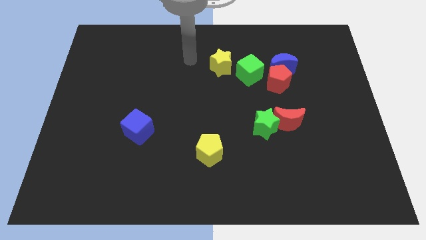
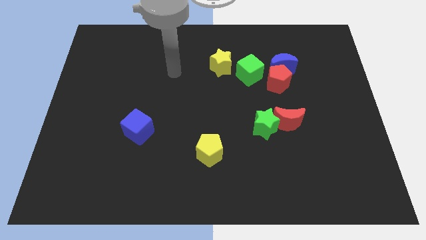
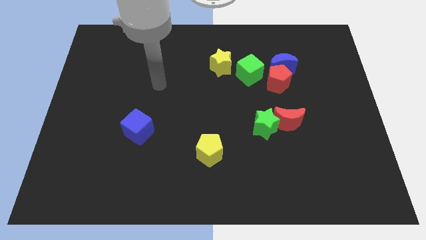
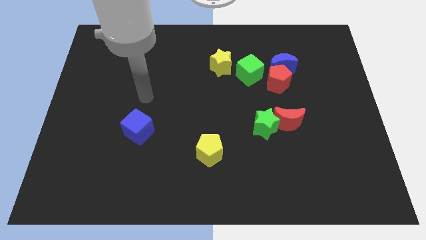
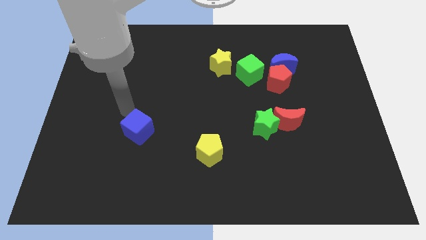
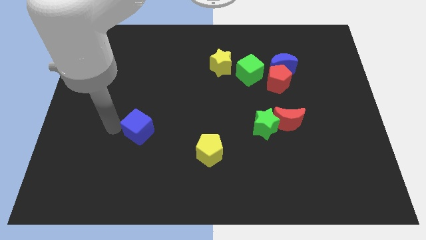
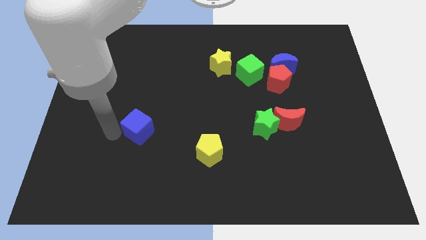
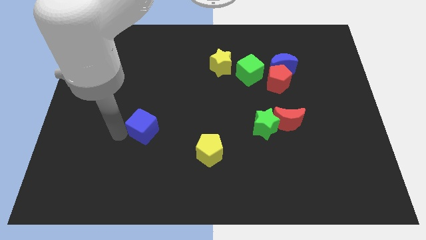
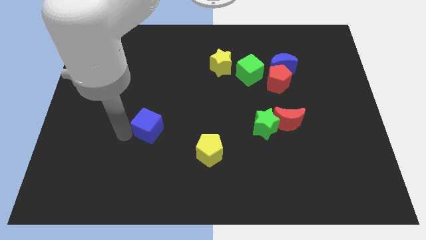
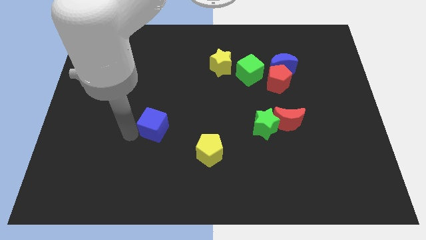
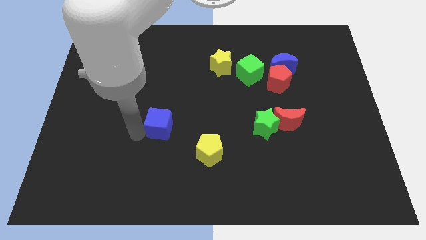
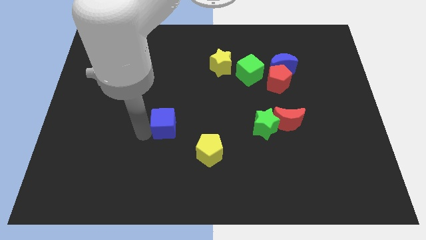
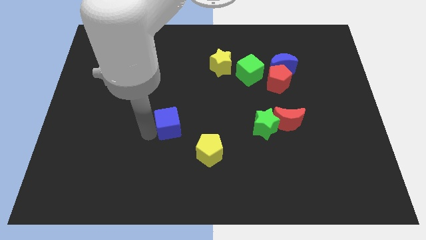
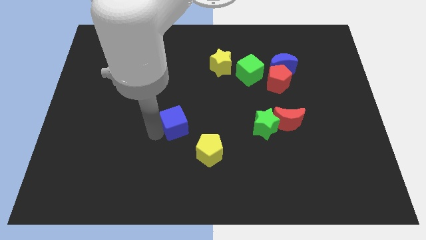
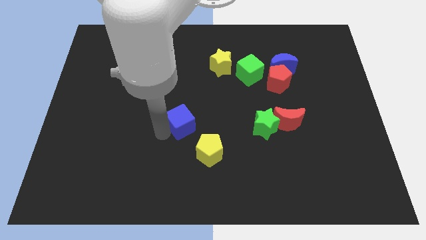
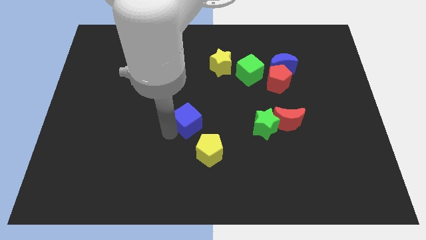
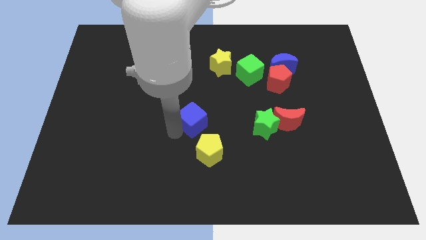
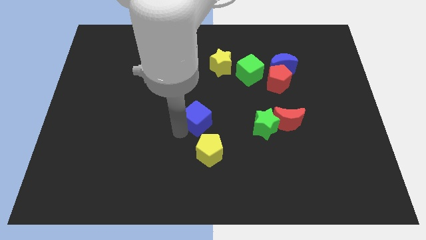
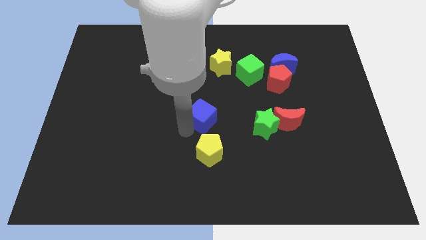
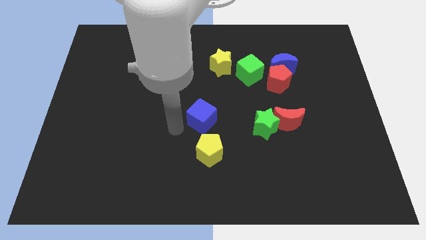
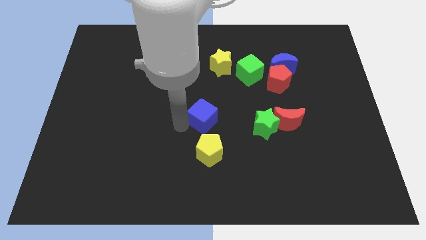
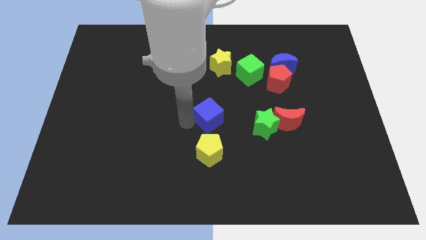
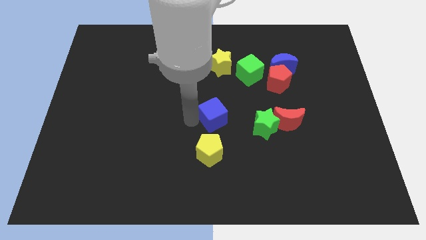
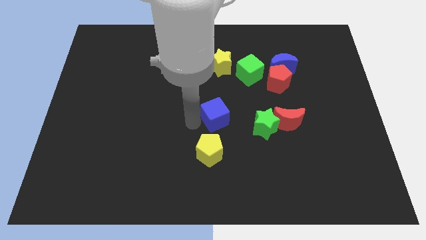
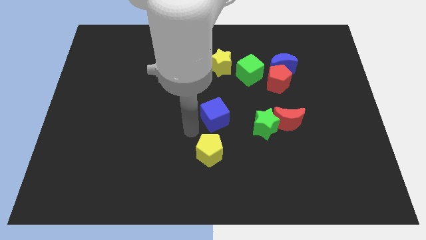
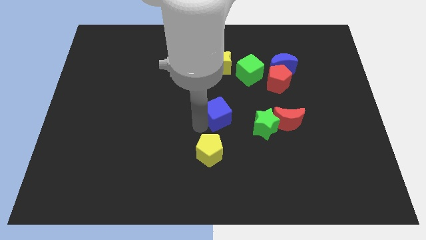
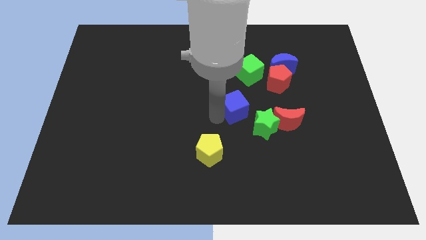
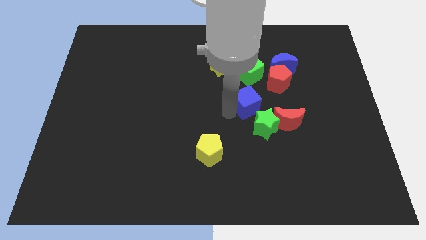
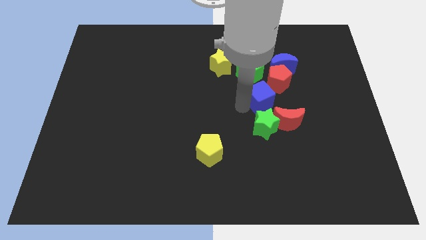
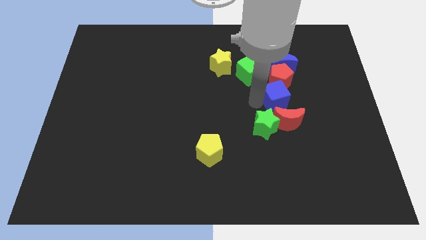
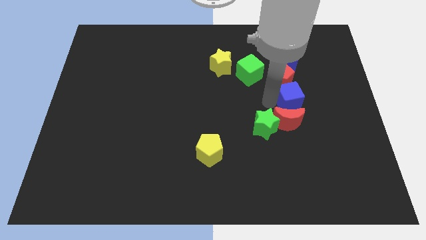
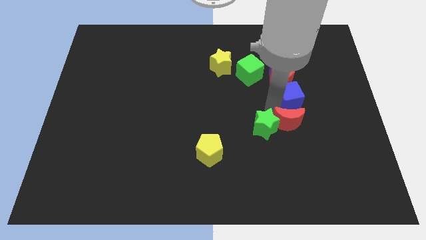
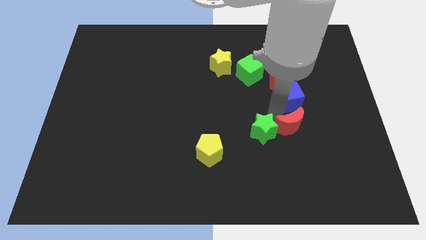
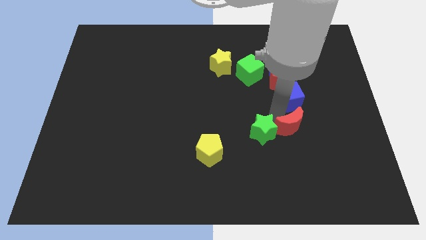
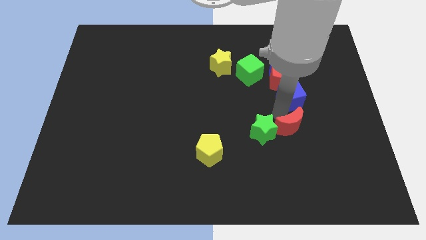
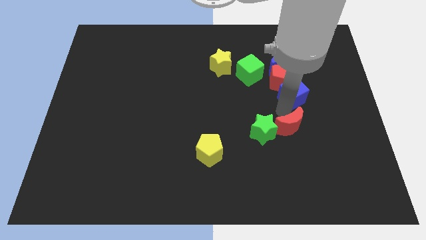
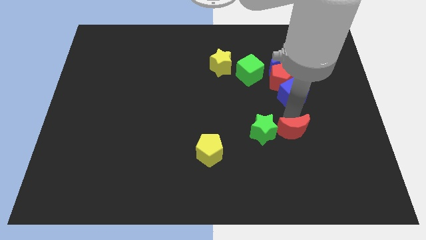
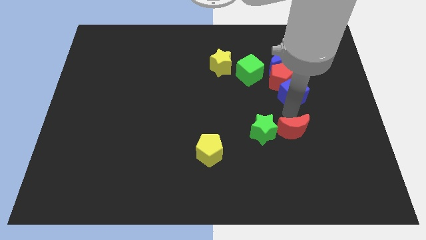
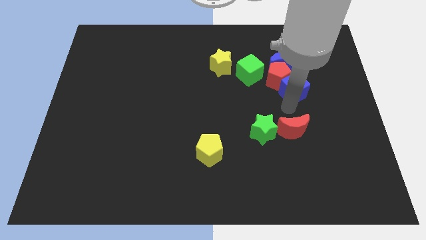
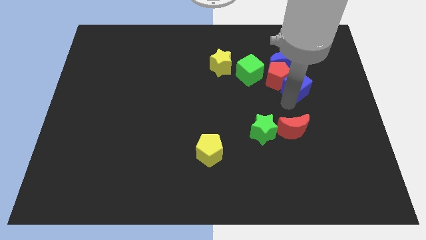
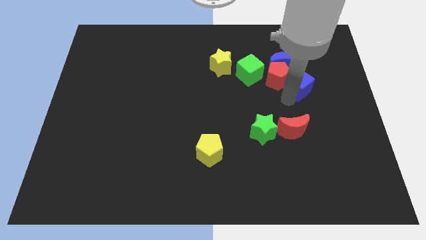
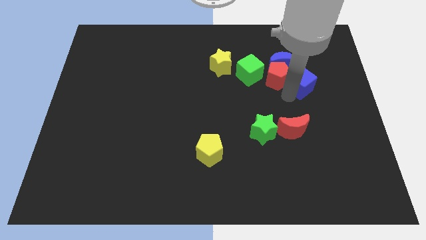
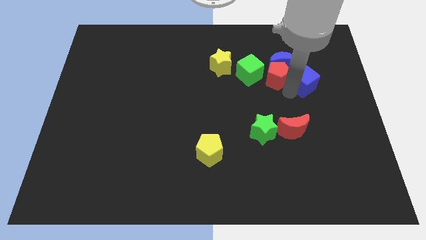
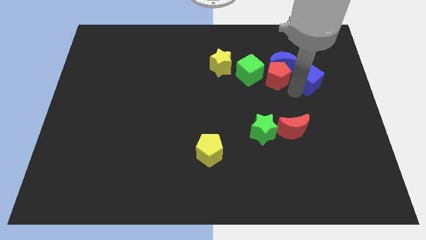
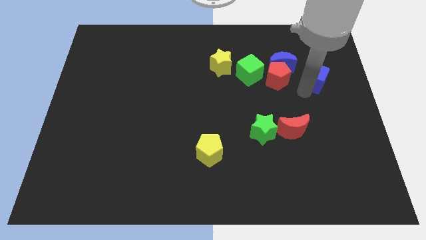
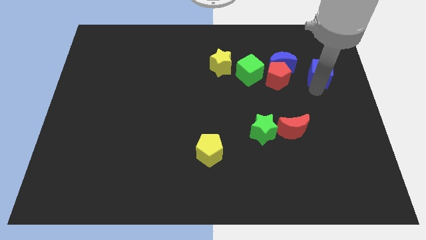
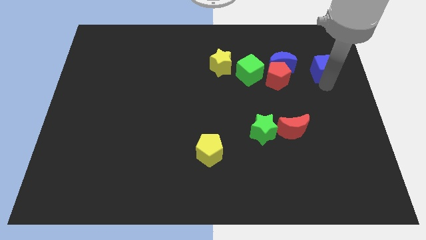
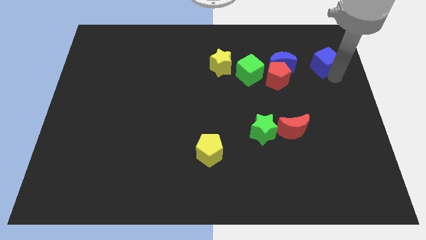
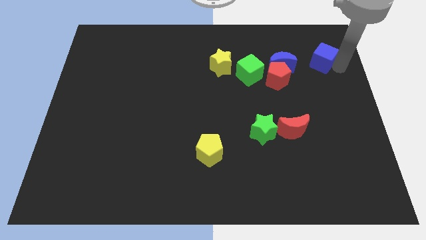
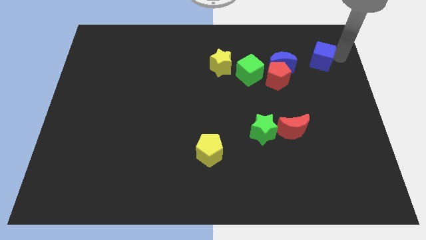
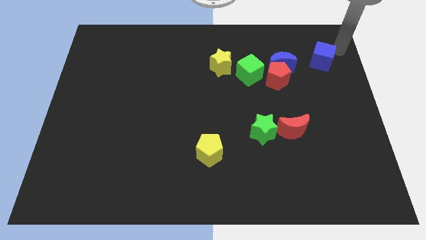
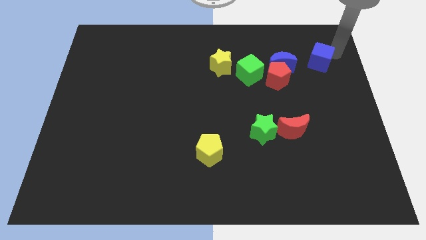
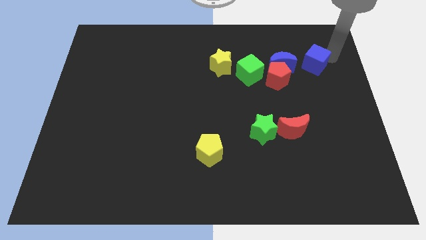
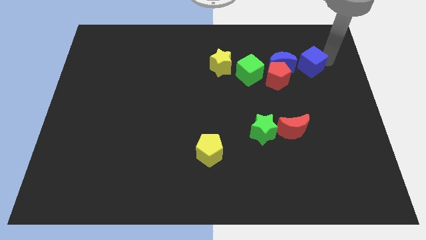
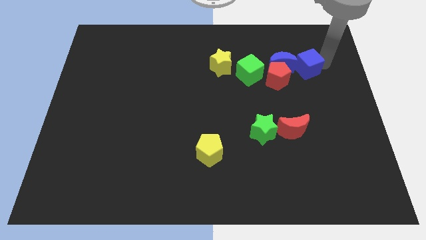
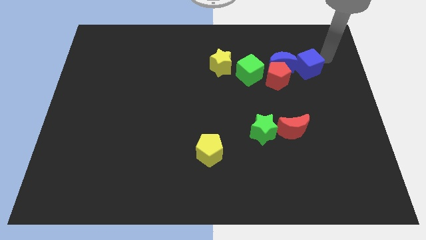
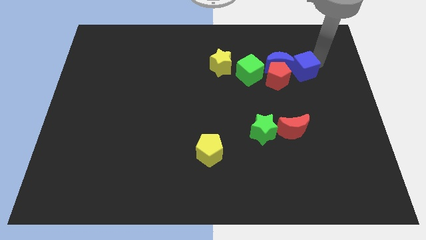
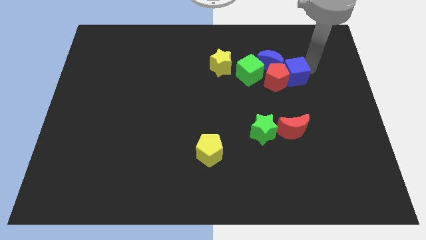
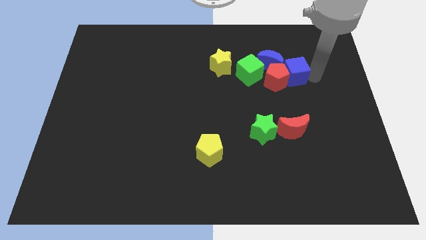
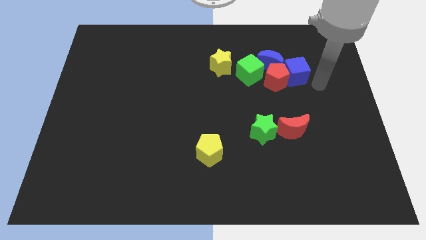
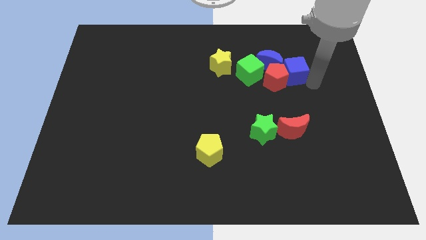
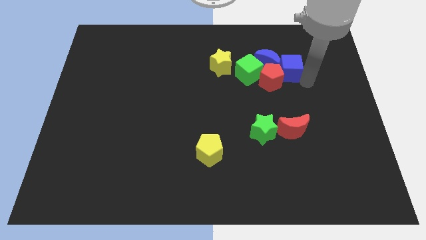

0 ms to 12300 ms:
push the blue cube next to the blue moon
